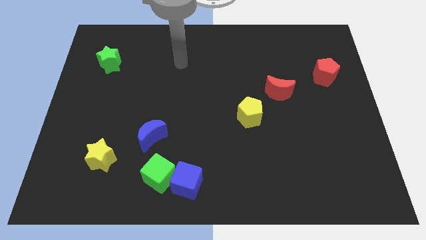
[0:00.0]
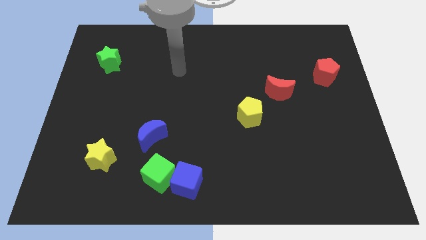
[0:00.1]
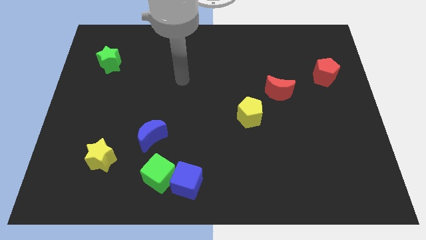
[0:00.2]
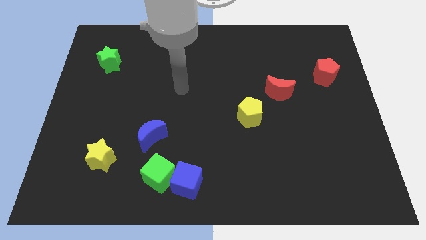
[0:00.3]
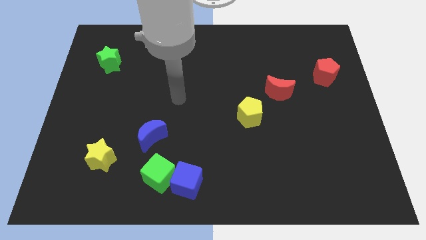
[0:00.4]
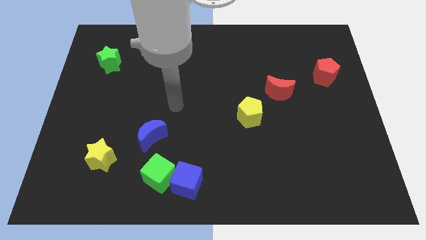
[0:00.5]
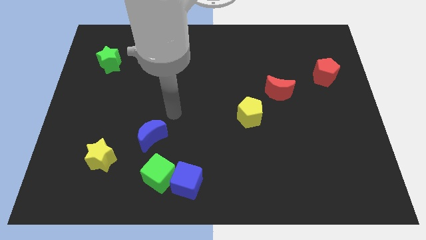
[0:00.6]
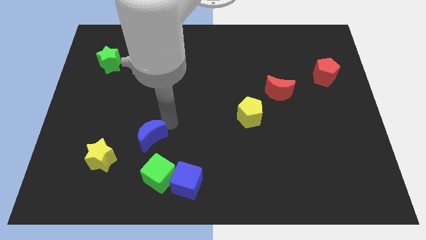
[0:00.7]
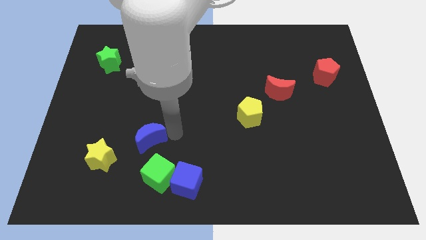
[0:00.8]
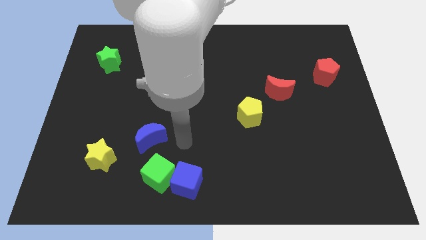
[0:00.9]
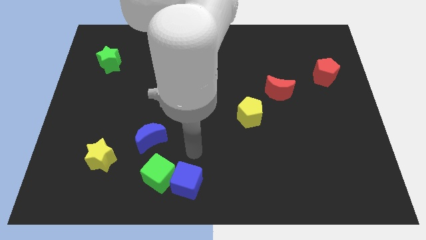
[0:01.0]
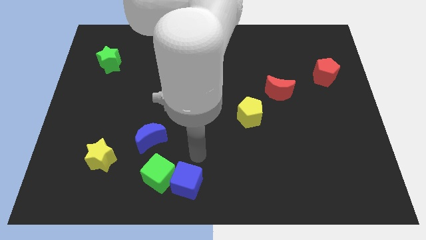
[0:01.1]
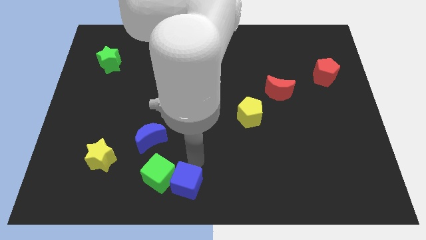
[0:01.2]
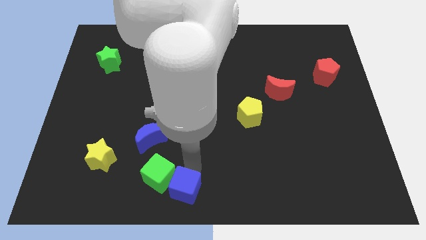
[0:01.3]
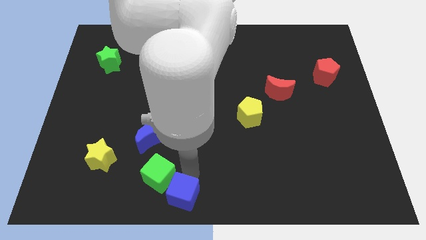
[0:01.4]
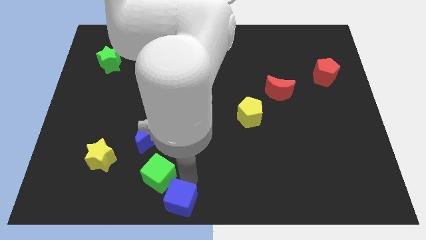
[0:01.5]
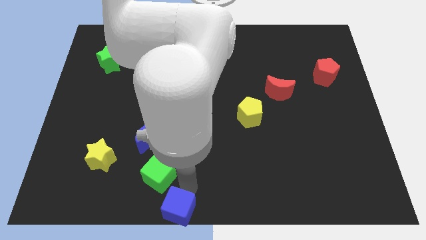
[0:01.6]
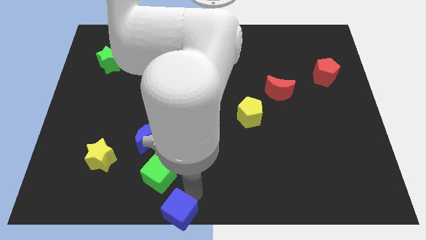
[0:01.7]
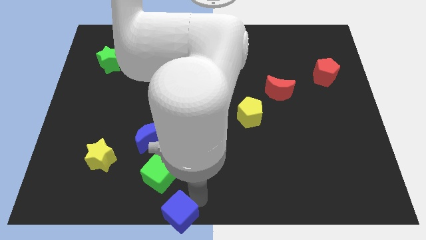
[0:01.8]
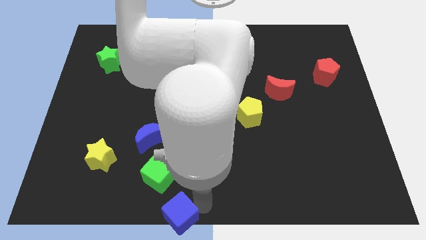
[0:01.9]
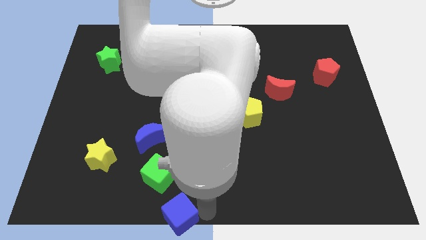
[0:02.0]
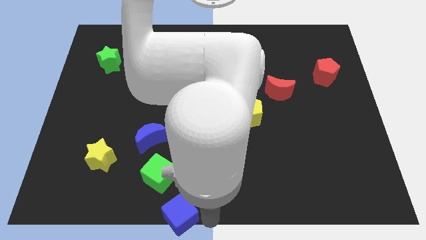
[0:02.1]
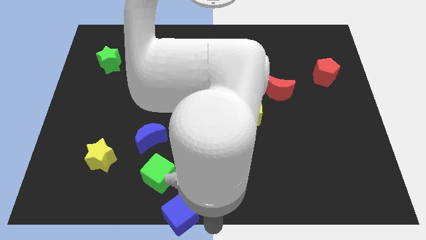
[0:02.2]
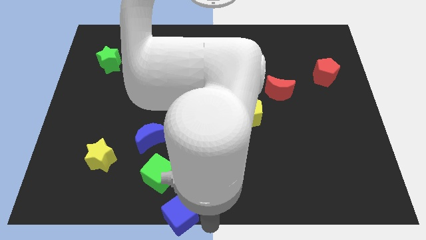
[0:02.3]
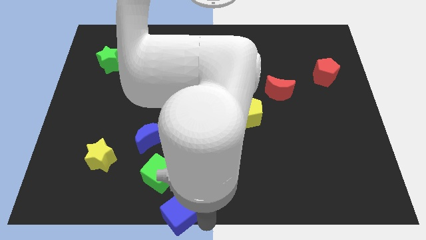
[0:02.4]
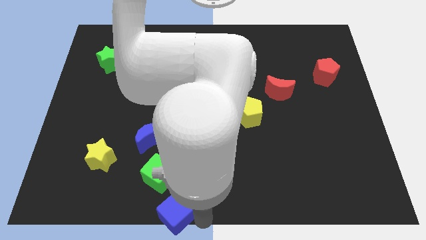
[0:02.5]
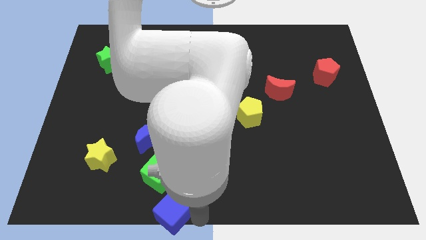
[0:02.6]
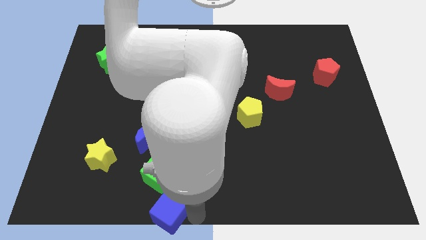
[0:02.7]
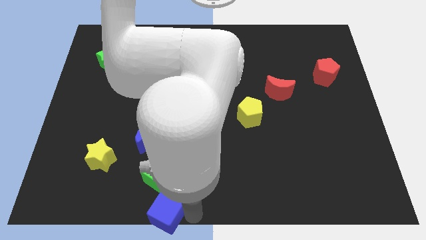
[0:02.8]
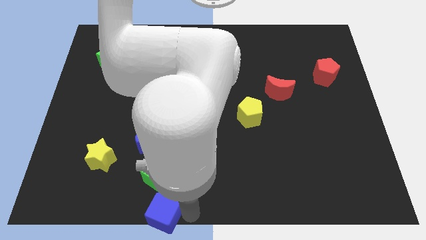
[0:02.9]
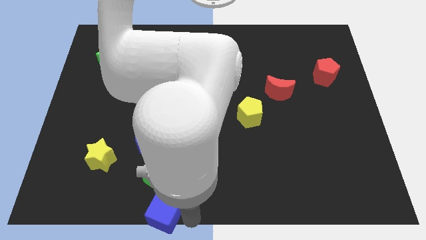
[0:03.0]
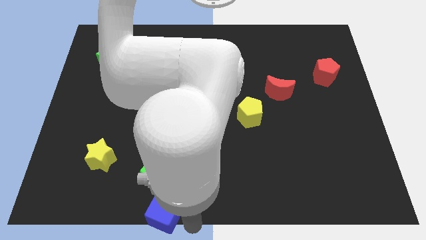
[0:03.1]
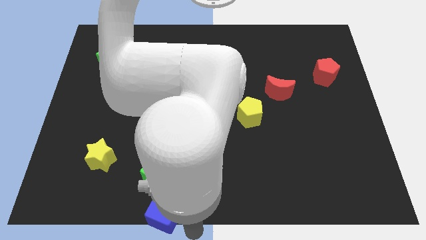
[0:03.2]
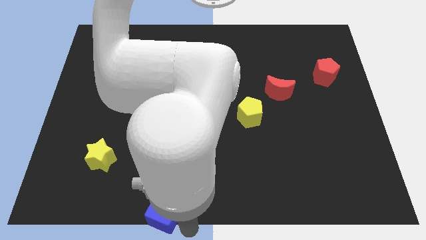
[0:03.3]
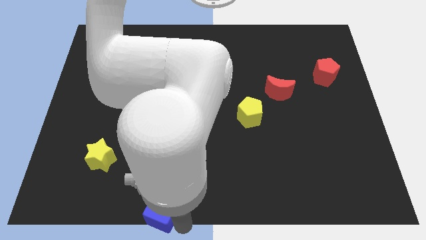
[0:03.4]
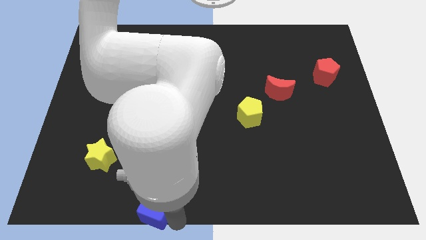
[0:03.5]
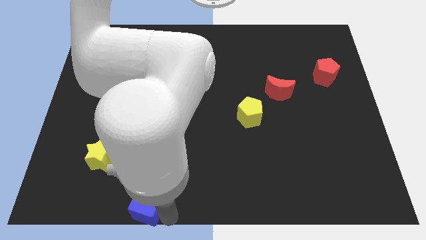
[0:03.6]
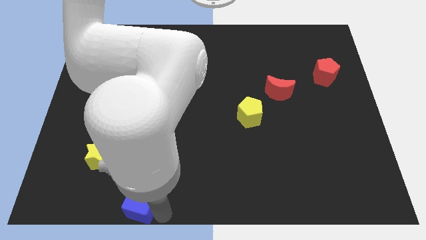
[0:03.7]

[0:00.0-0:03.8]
slightly move the blue cube left

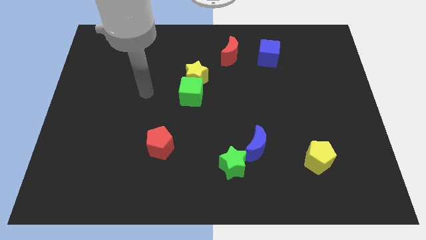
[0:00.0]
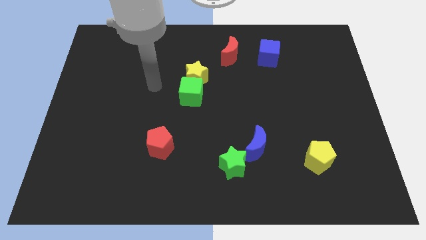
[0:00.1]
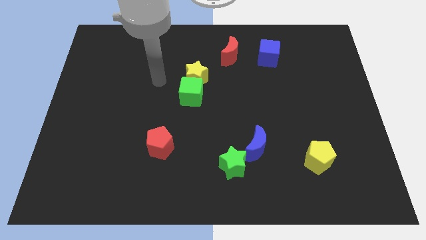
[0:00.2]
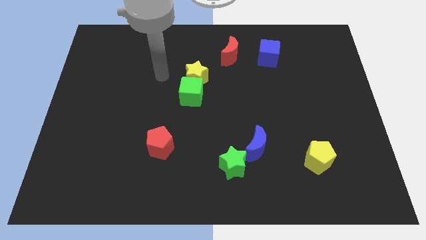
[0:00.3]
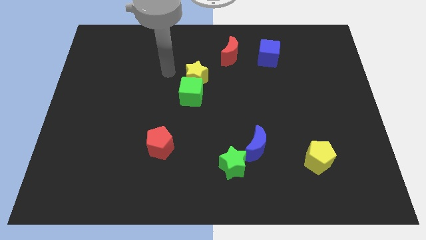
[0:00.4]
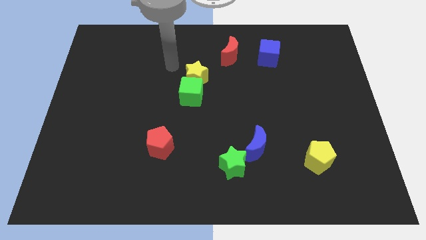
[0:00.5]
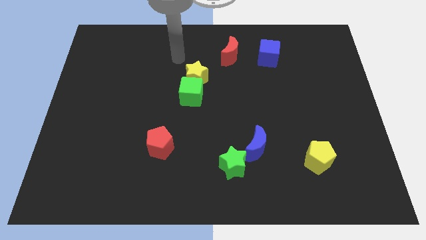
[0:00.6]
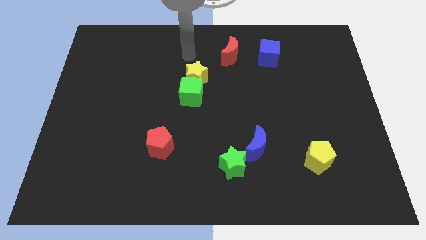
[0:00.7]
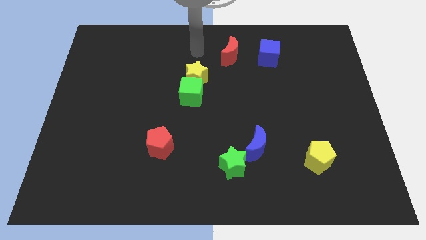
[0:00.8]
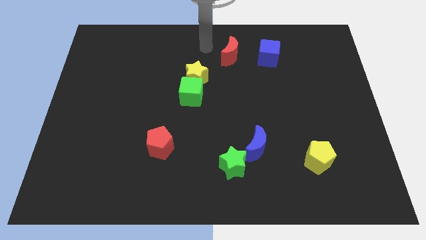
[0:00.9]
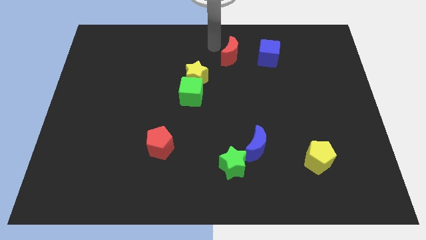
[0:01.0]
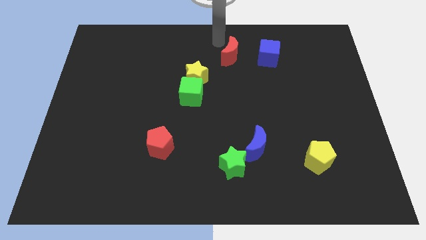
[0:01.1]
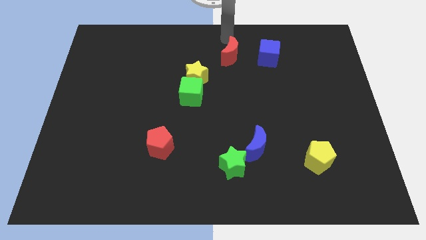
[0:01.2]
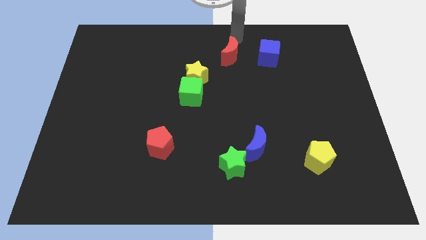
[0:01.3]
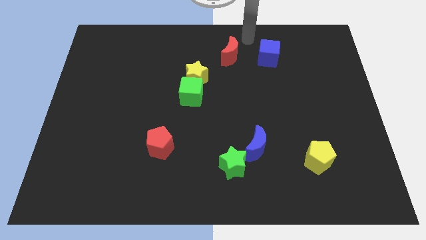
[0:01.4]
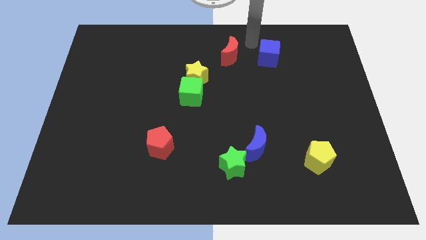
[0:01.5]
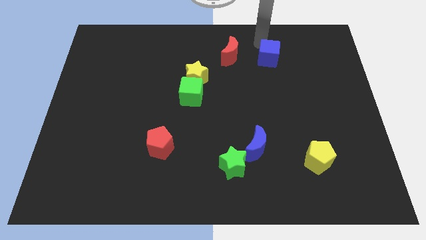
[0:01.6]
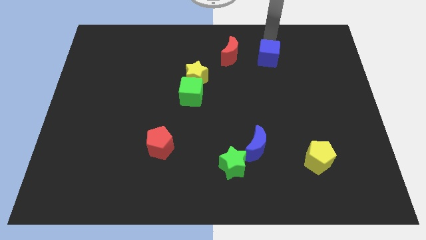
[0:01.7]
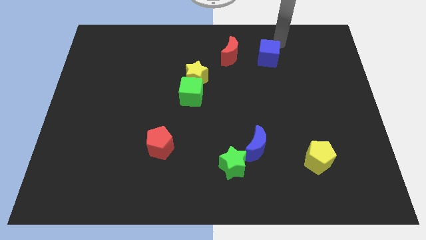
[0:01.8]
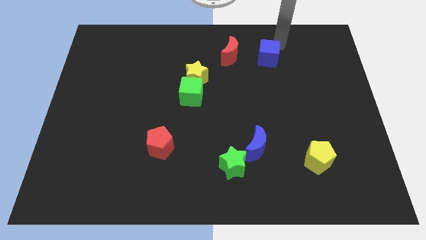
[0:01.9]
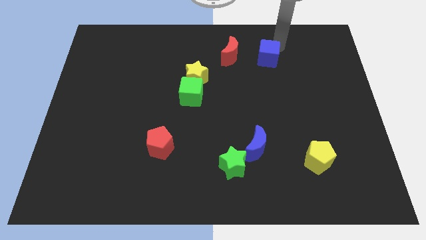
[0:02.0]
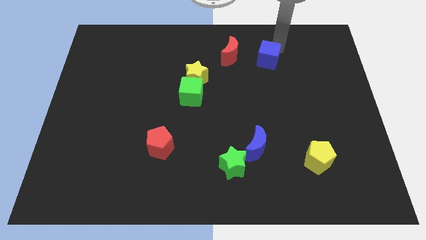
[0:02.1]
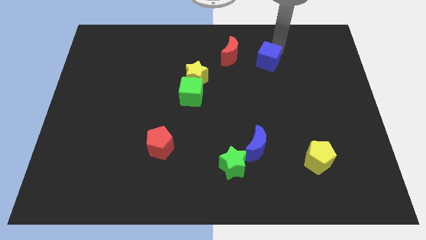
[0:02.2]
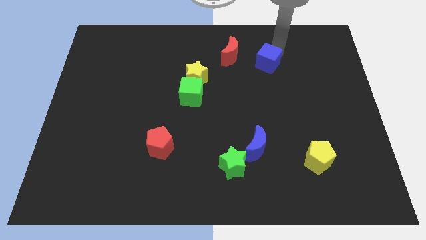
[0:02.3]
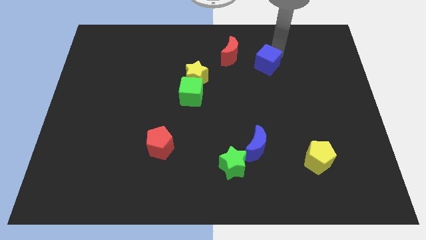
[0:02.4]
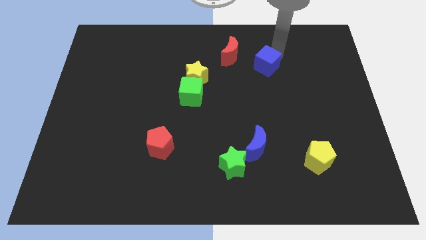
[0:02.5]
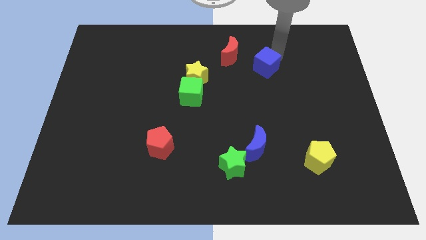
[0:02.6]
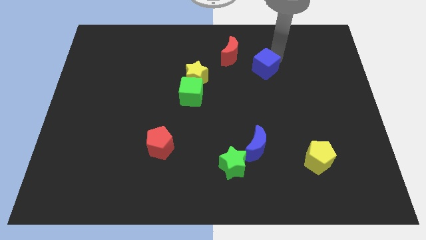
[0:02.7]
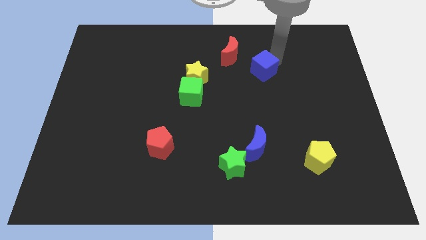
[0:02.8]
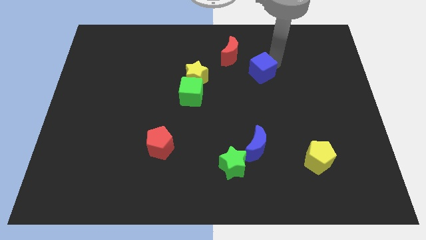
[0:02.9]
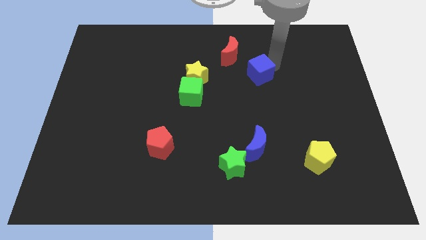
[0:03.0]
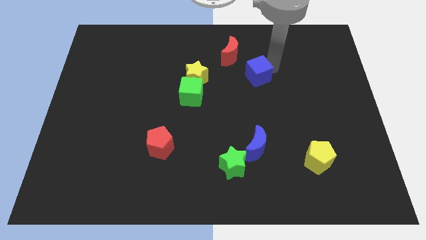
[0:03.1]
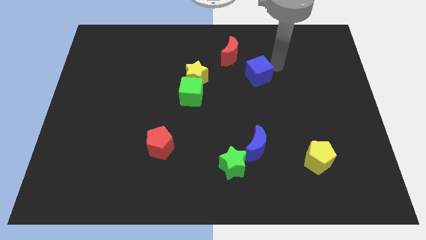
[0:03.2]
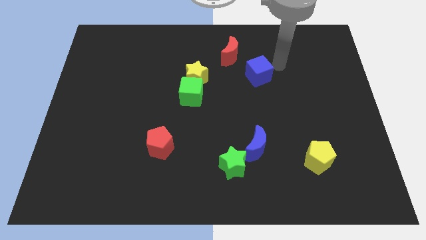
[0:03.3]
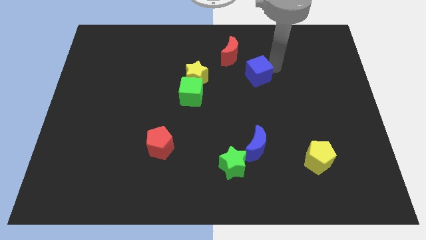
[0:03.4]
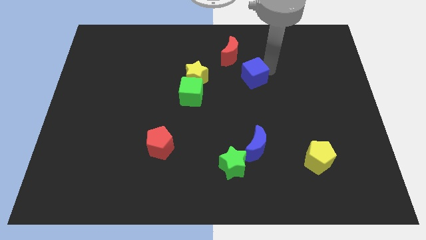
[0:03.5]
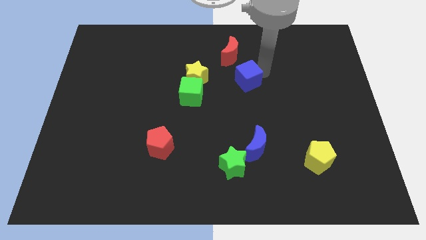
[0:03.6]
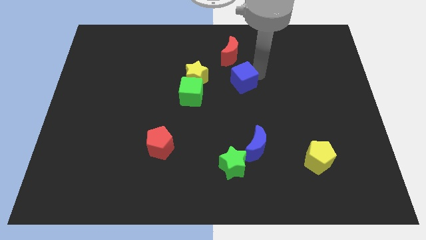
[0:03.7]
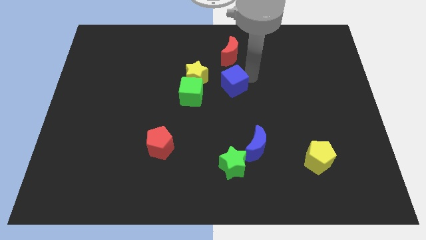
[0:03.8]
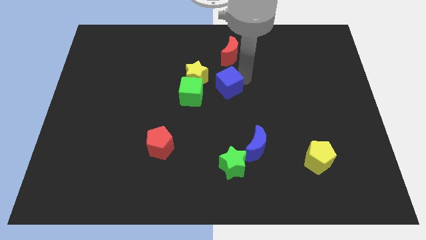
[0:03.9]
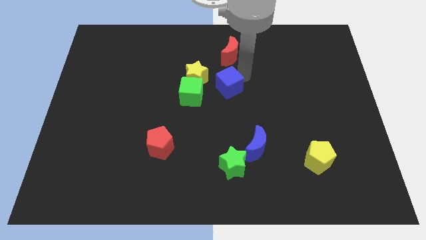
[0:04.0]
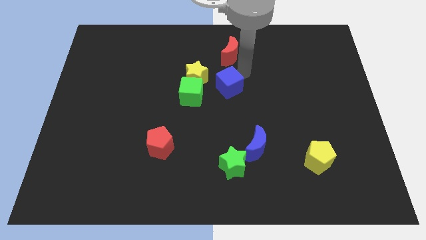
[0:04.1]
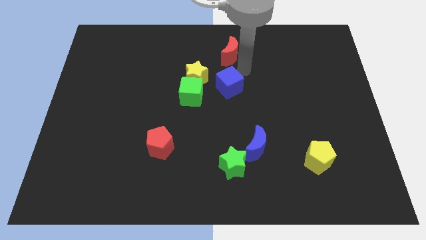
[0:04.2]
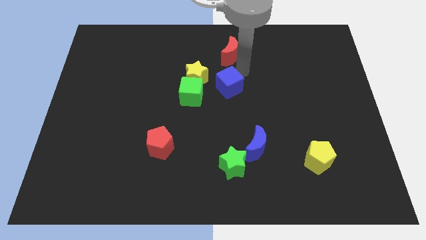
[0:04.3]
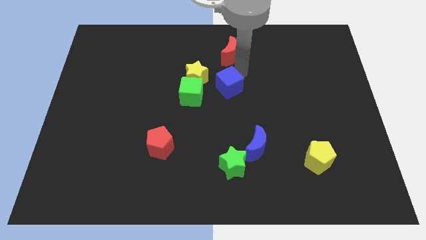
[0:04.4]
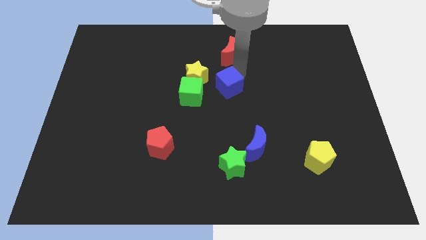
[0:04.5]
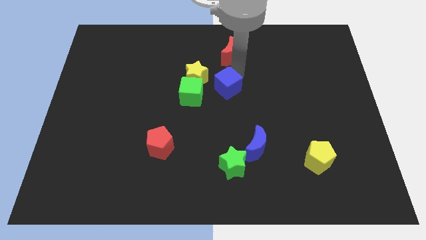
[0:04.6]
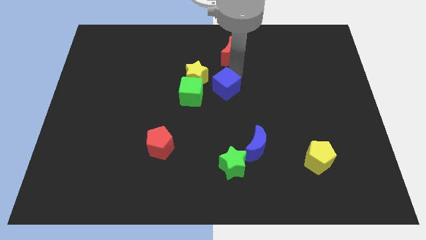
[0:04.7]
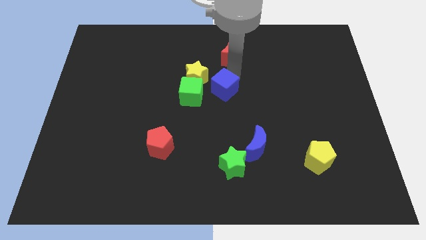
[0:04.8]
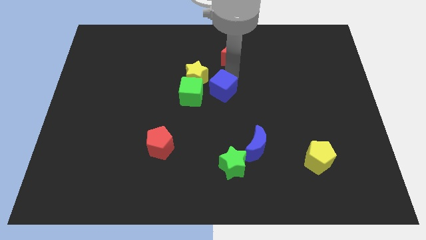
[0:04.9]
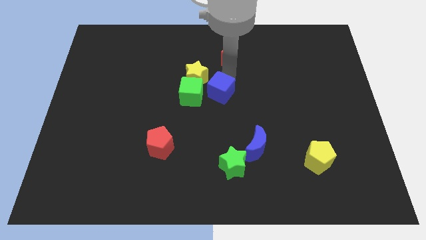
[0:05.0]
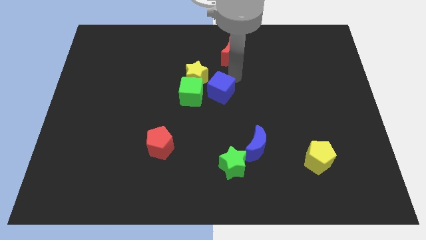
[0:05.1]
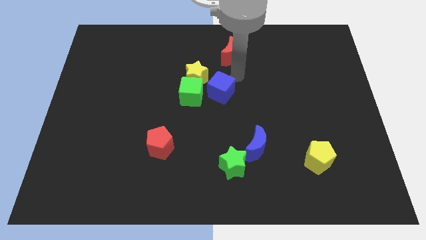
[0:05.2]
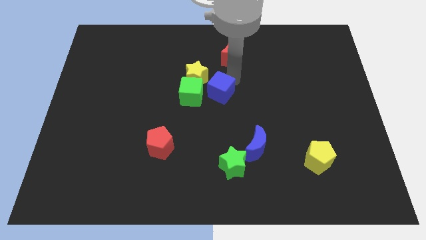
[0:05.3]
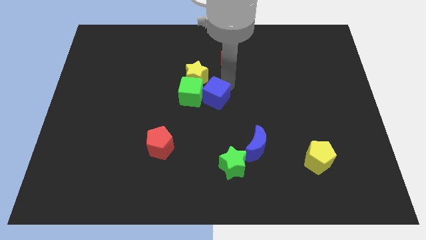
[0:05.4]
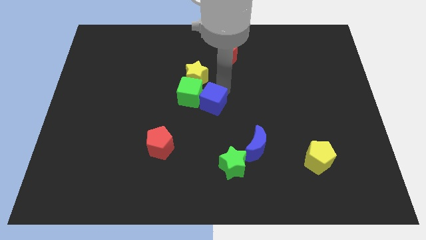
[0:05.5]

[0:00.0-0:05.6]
push the blue cube downwards and then to the left
